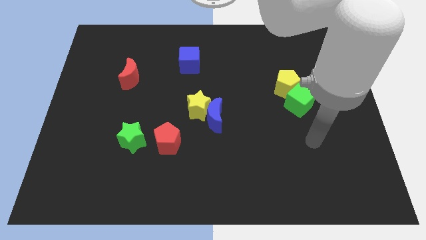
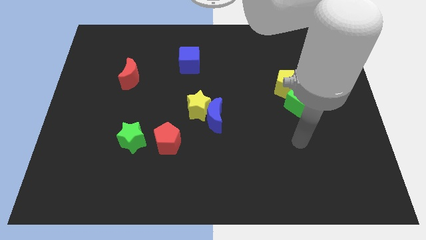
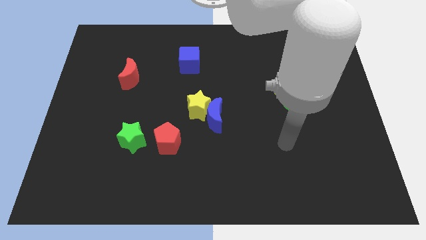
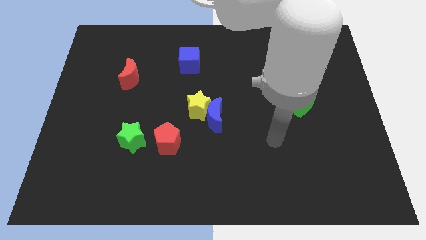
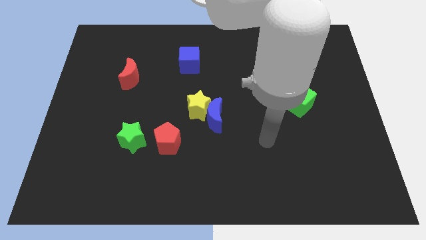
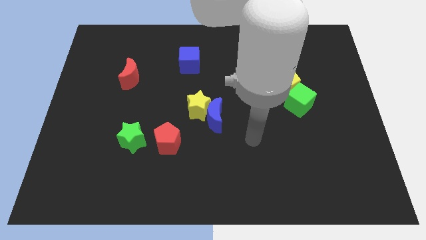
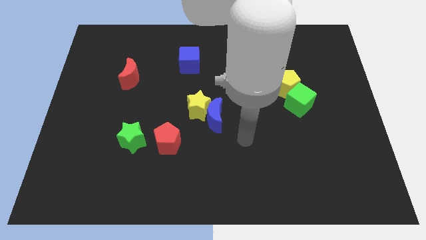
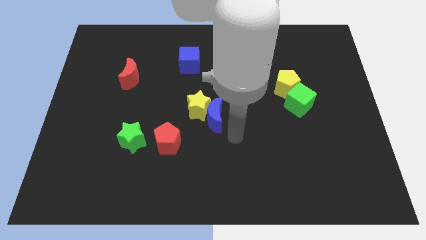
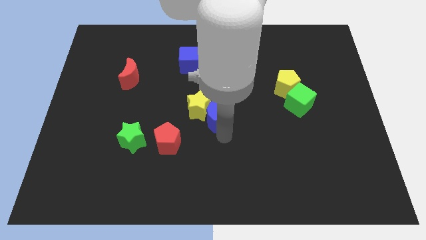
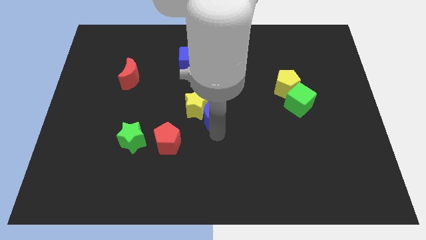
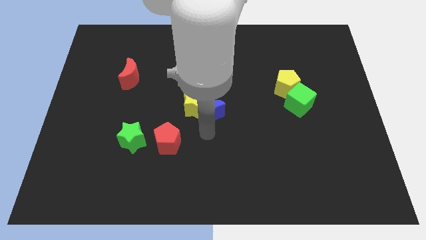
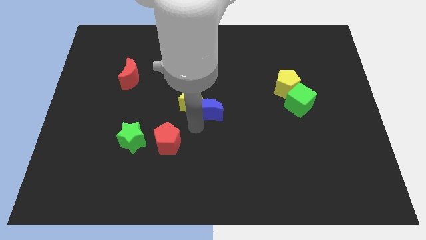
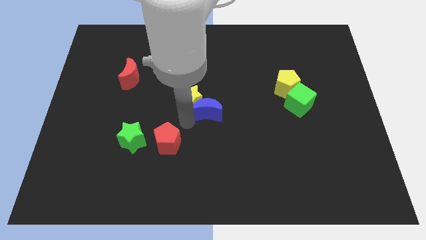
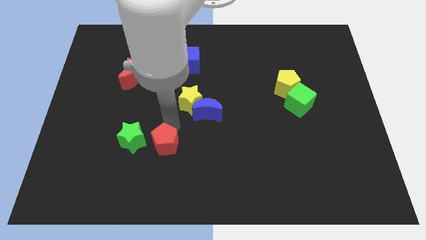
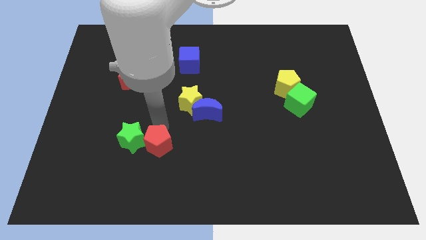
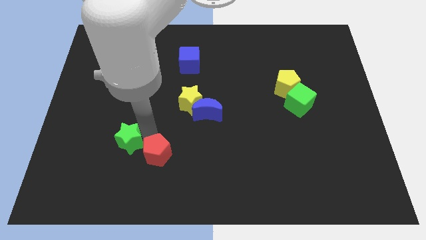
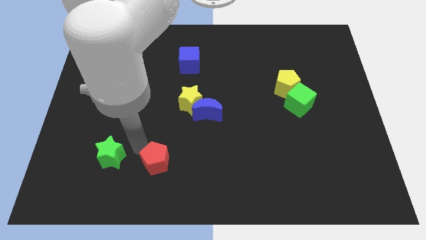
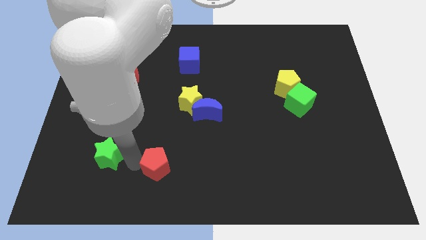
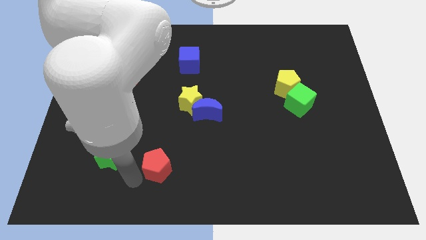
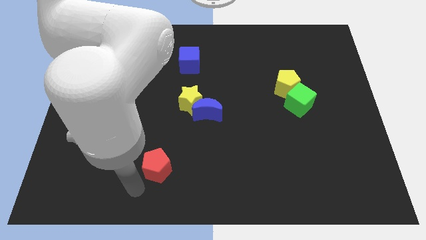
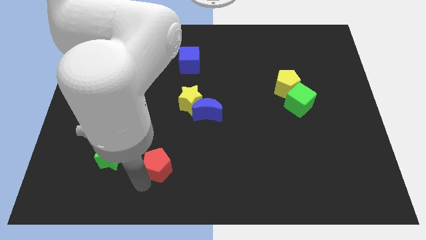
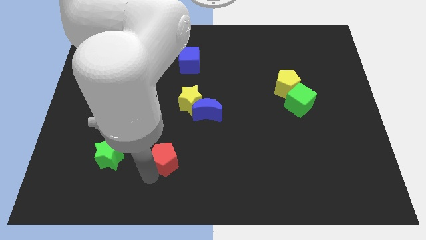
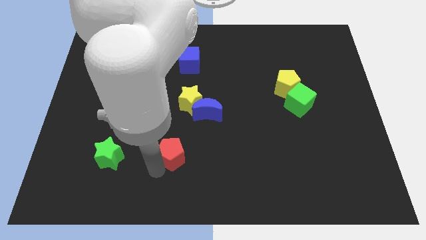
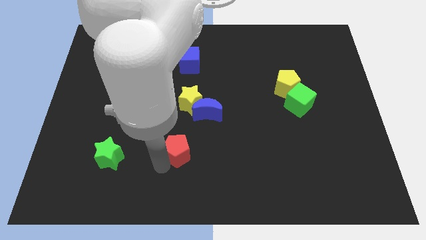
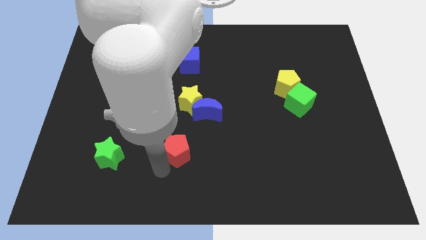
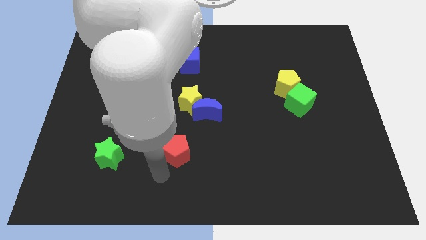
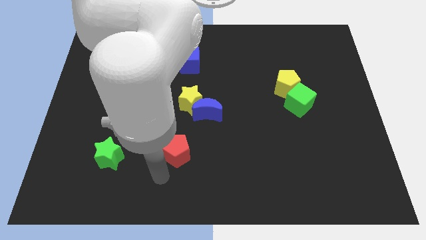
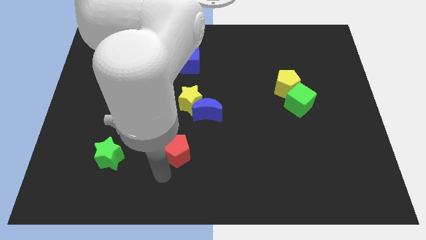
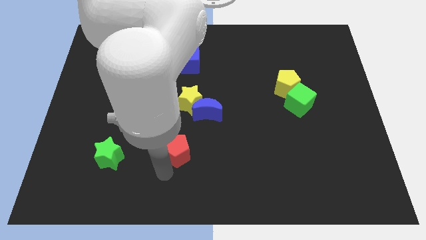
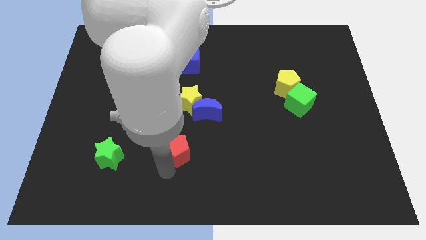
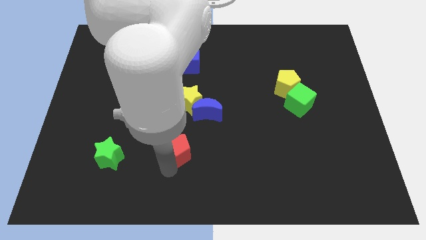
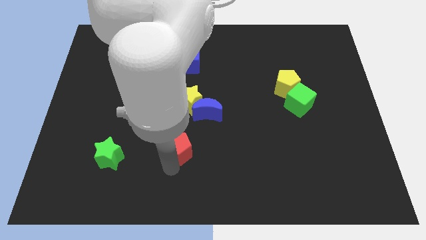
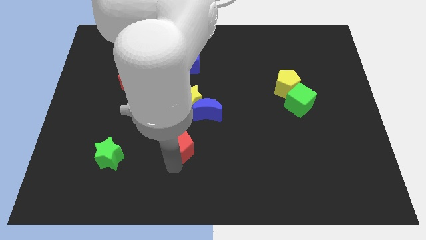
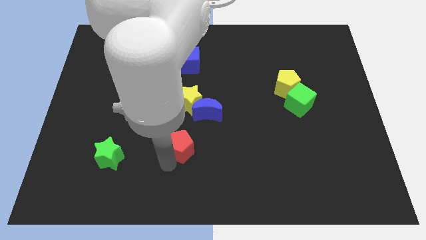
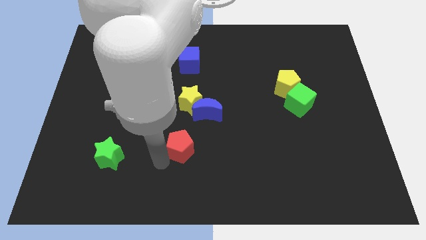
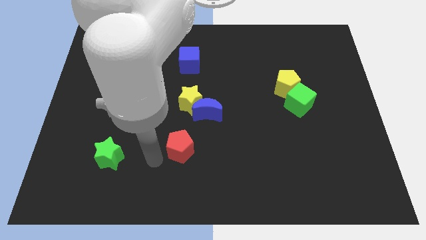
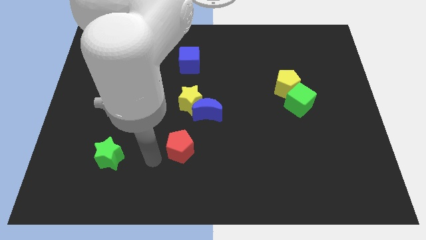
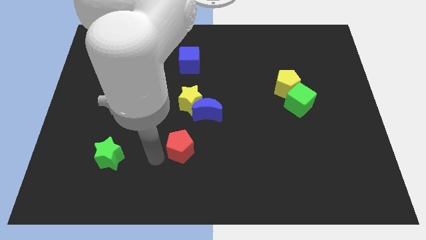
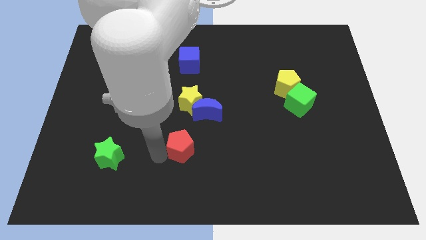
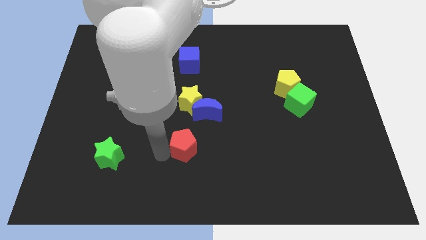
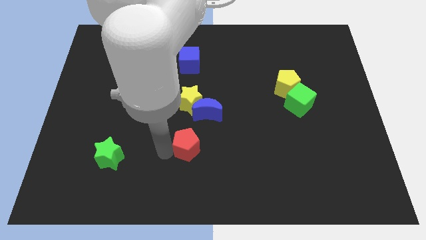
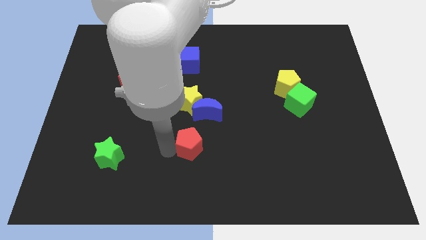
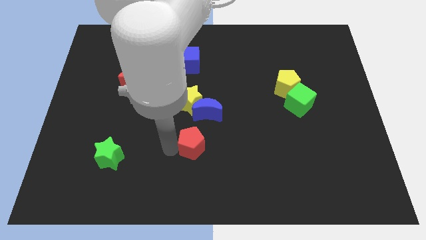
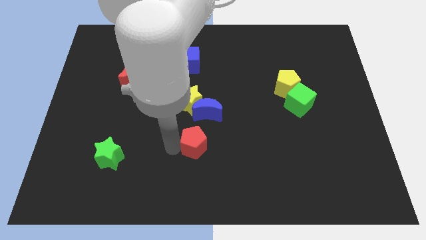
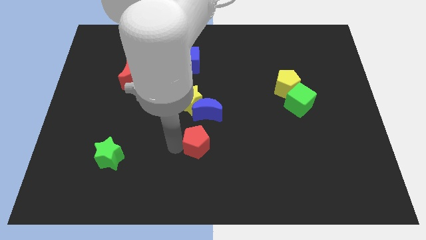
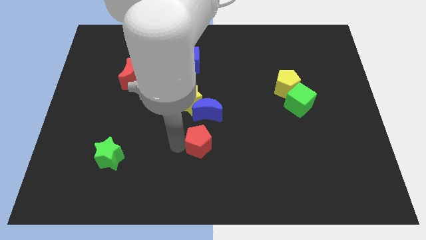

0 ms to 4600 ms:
slightly push the red pentagon right

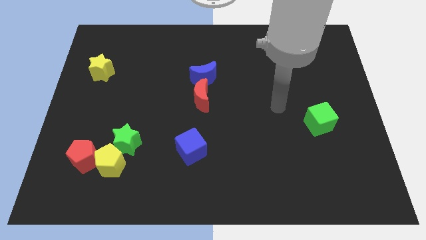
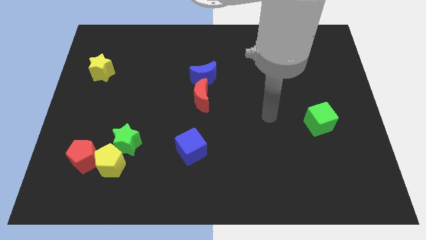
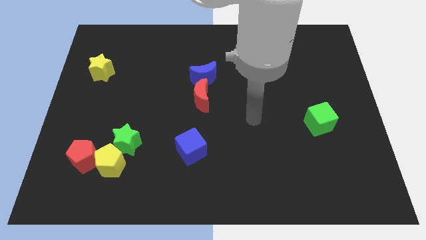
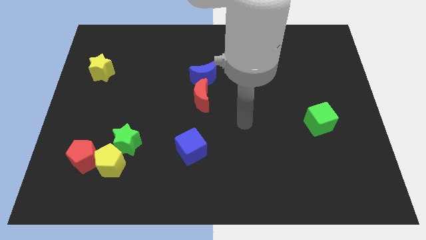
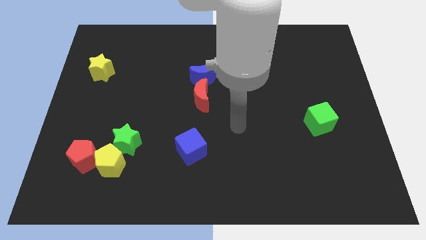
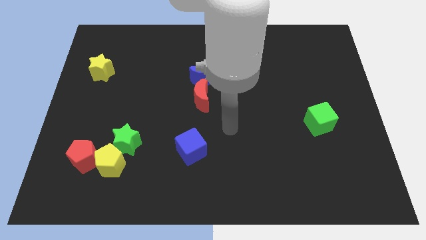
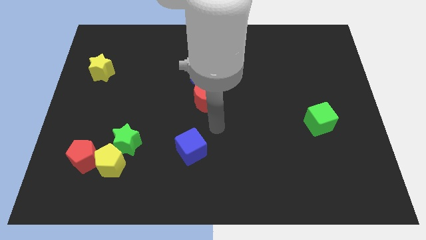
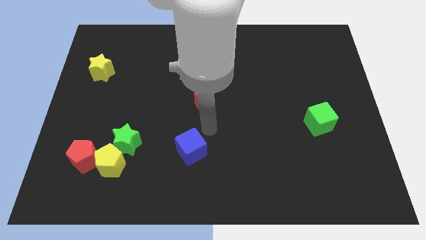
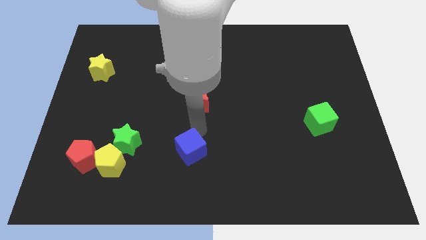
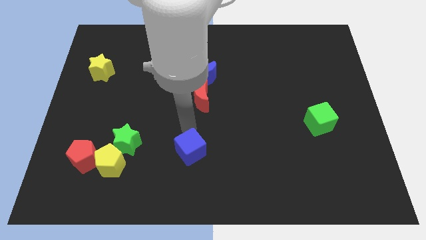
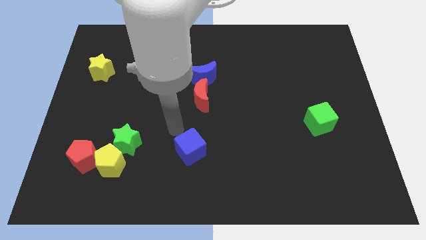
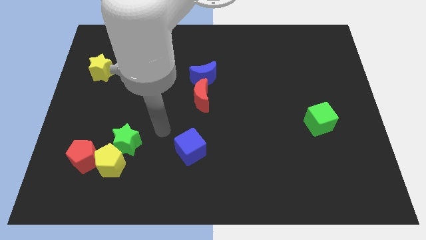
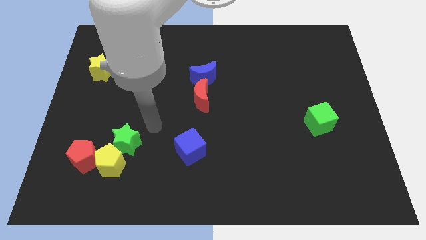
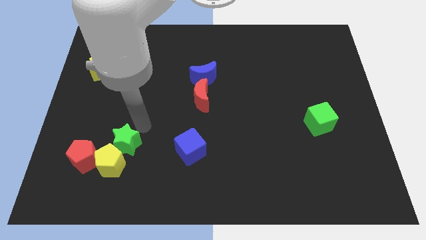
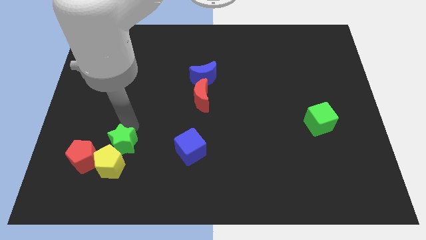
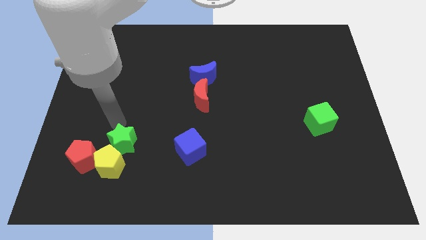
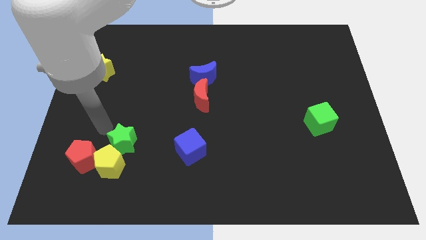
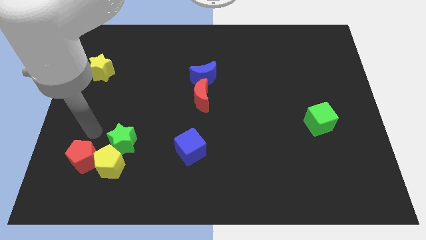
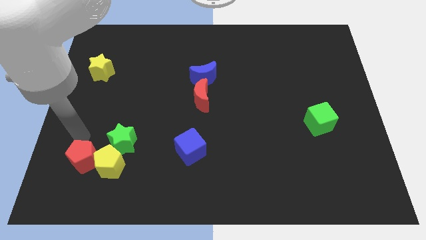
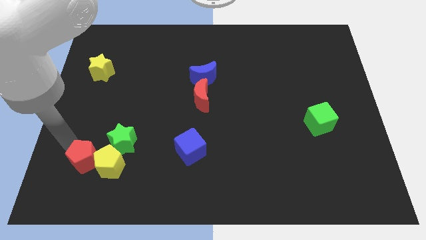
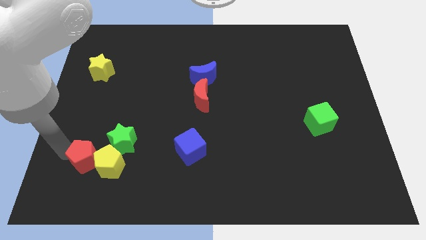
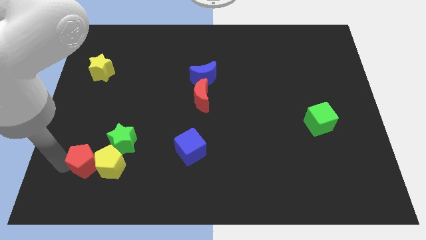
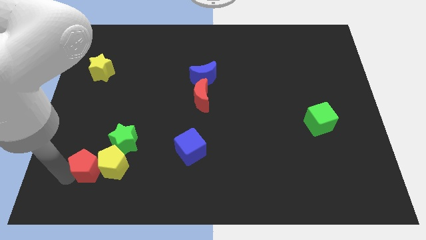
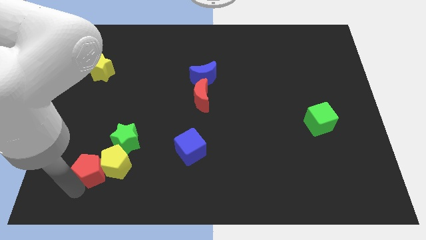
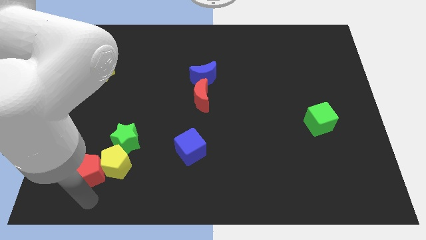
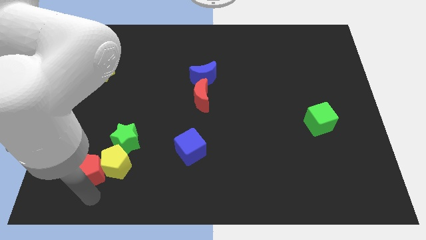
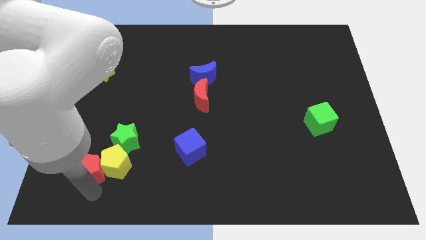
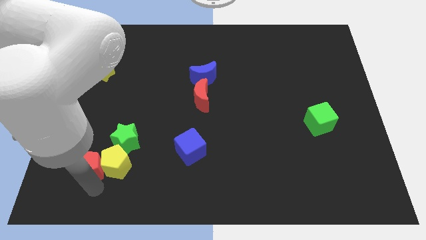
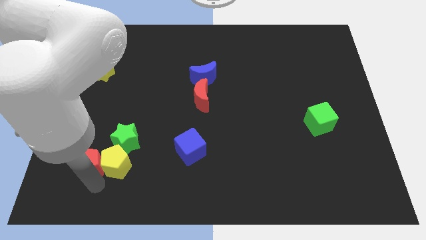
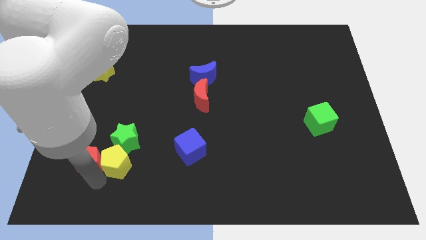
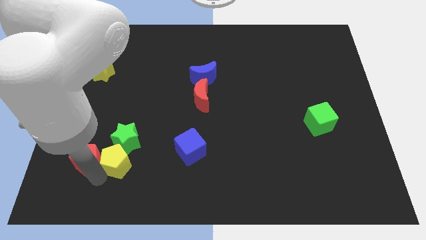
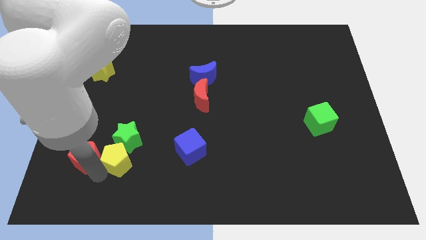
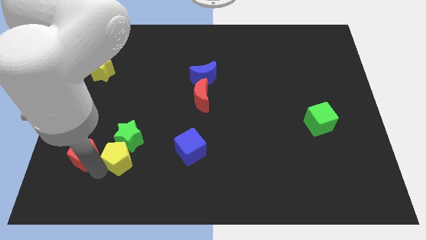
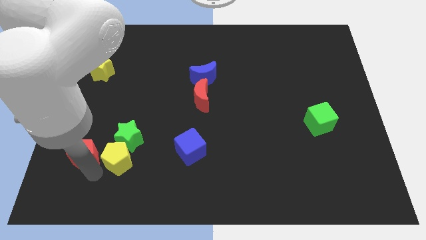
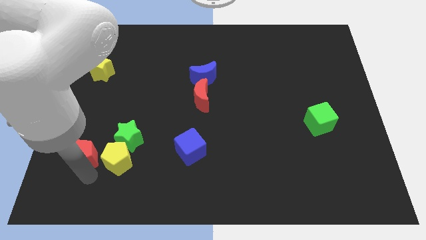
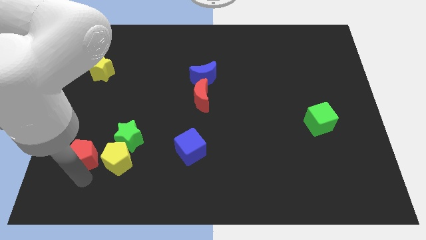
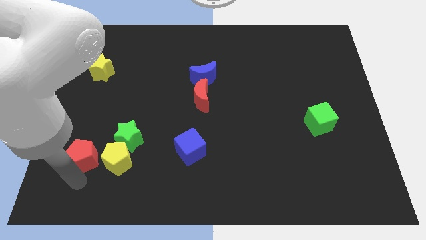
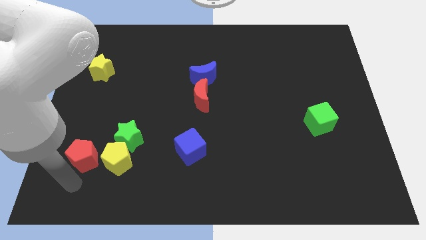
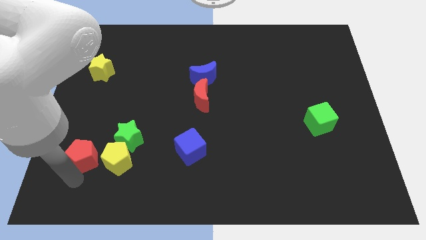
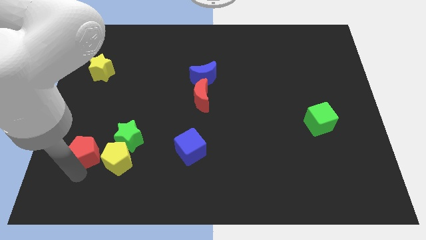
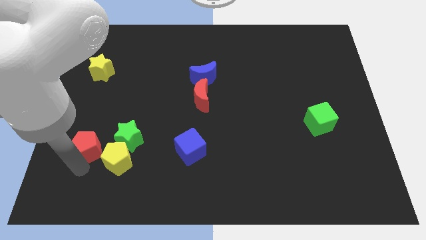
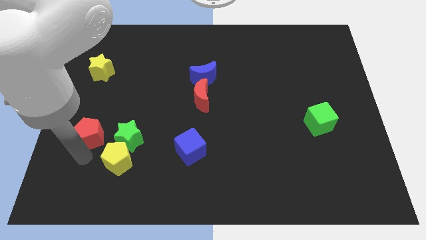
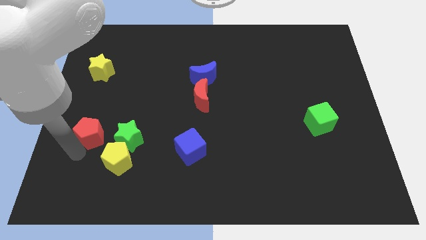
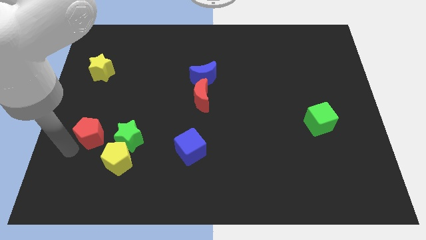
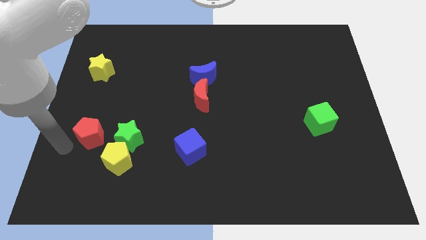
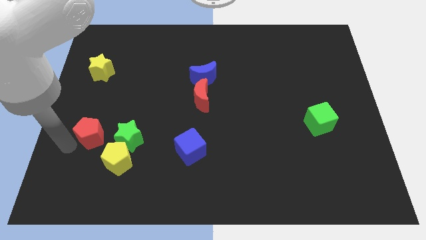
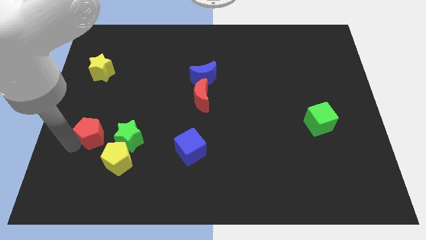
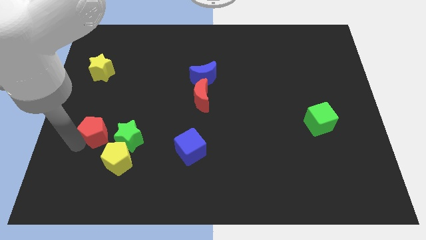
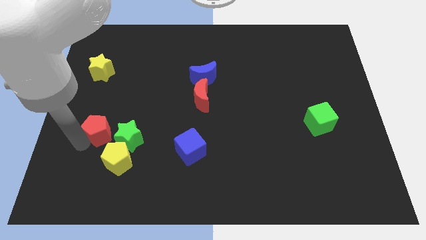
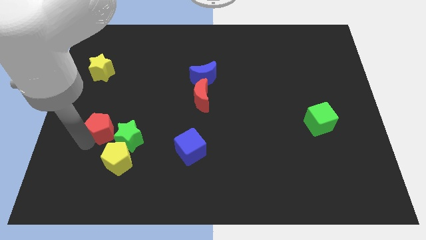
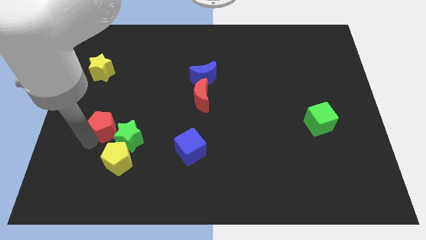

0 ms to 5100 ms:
slide the red pentagon up and then right slightly
